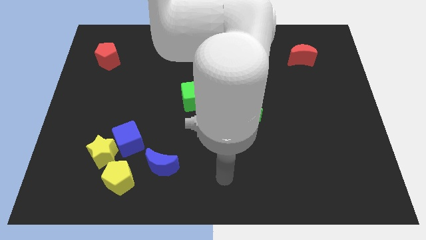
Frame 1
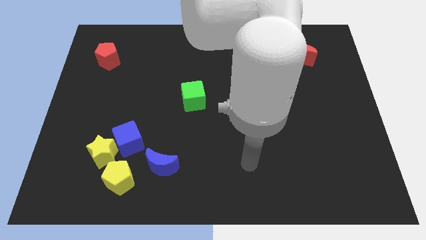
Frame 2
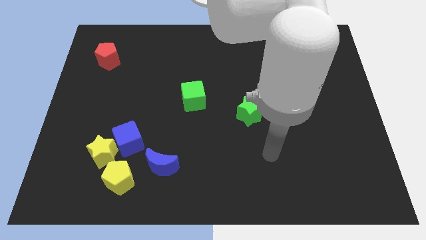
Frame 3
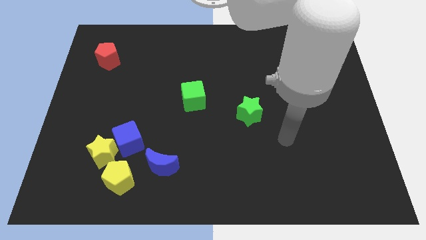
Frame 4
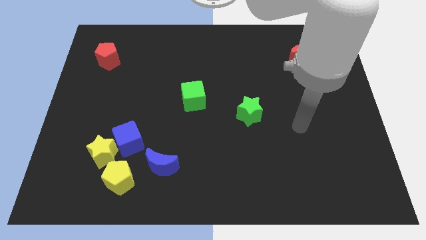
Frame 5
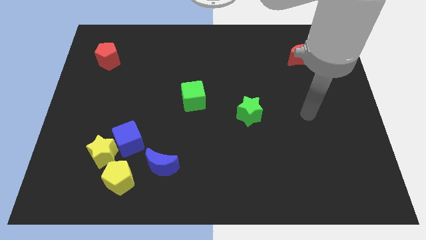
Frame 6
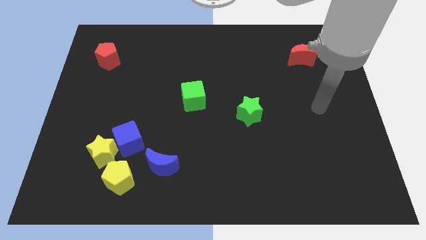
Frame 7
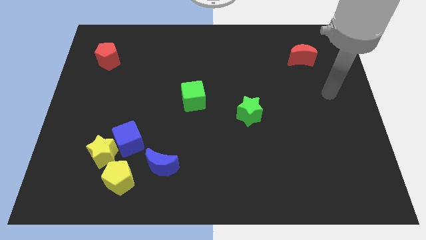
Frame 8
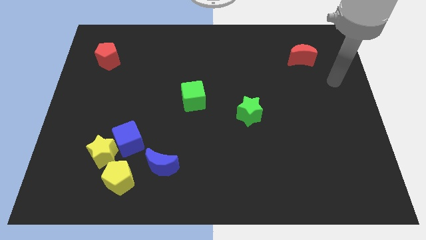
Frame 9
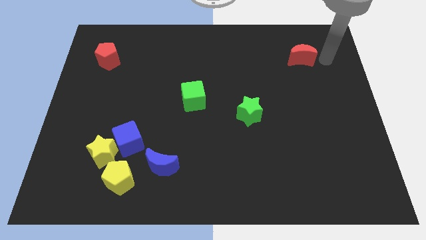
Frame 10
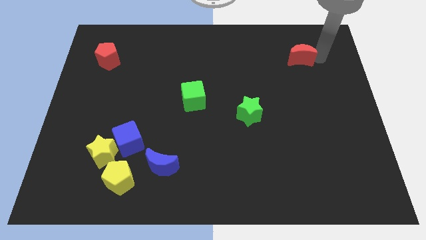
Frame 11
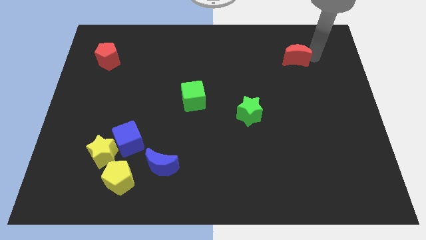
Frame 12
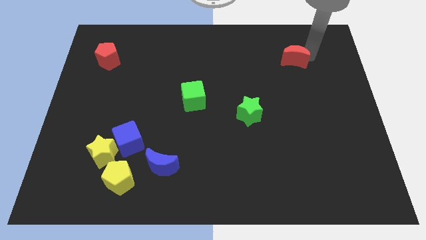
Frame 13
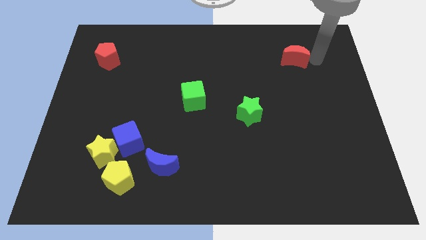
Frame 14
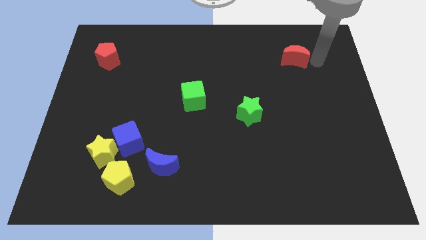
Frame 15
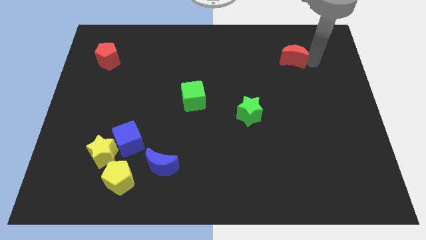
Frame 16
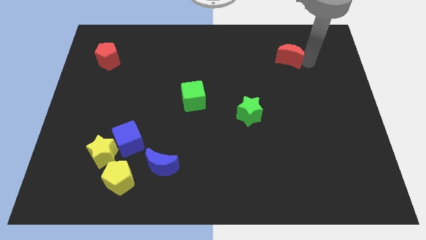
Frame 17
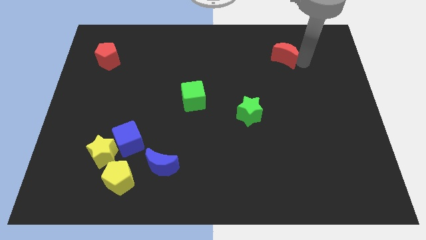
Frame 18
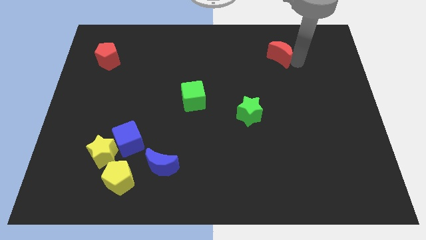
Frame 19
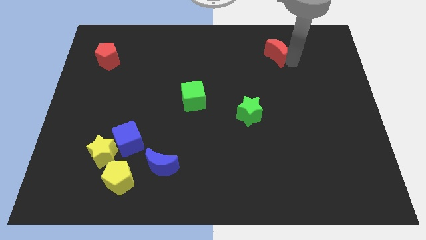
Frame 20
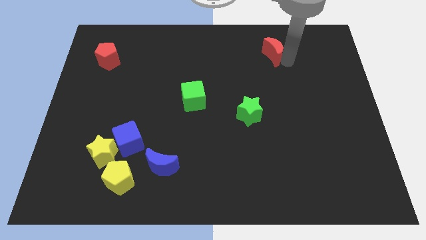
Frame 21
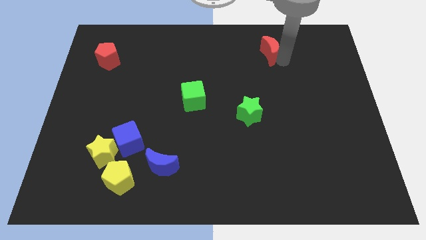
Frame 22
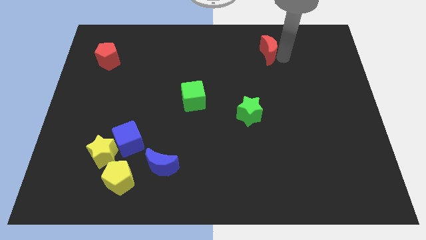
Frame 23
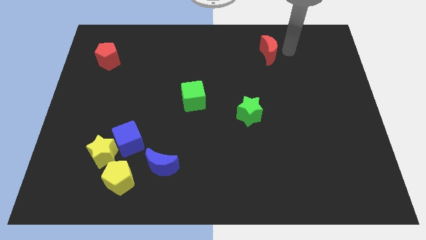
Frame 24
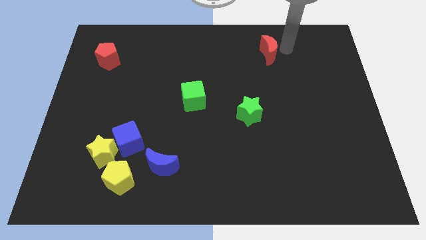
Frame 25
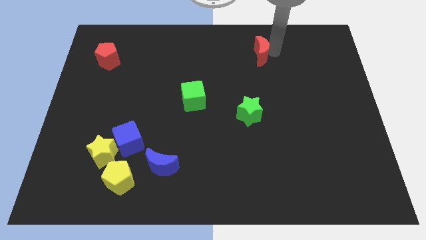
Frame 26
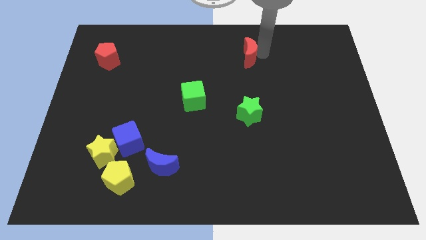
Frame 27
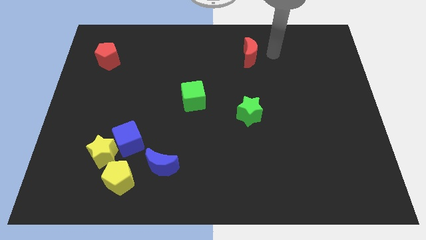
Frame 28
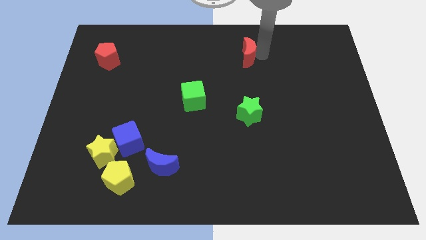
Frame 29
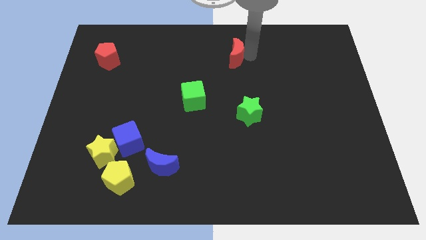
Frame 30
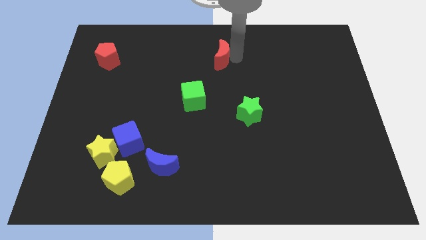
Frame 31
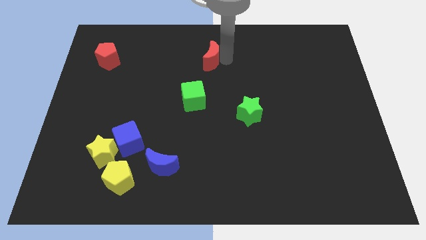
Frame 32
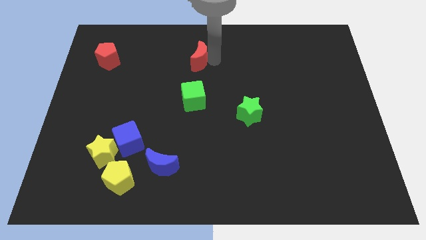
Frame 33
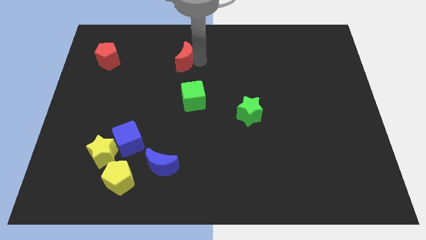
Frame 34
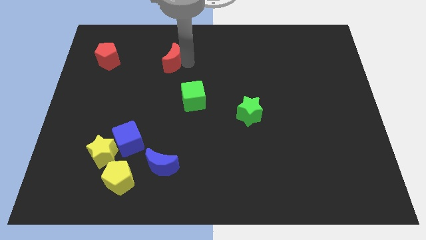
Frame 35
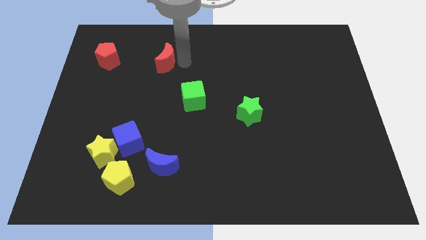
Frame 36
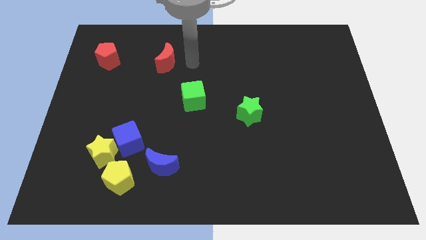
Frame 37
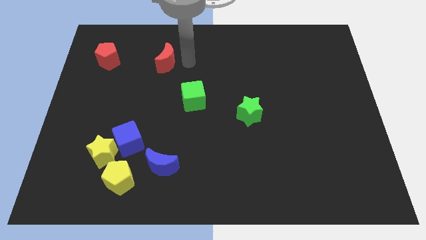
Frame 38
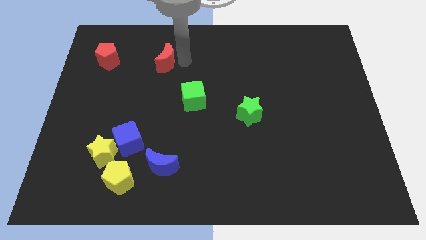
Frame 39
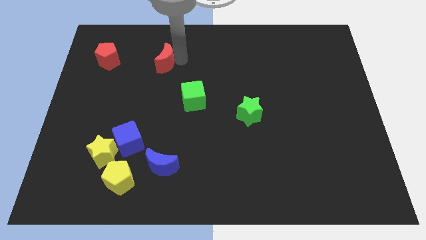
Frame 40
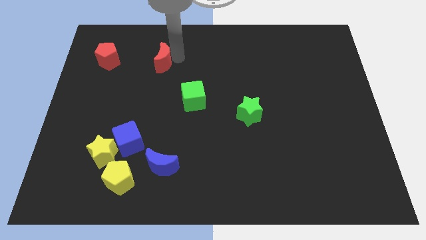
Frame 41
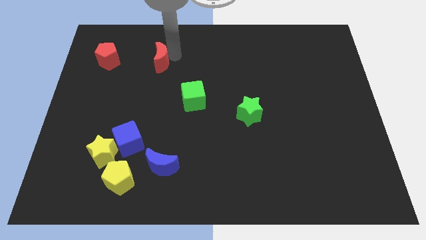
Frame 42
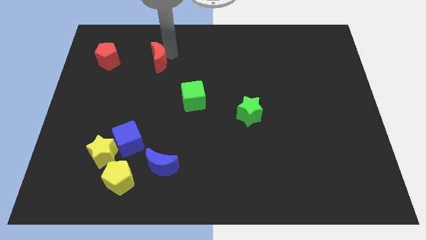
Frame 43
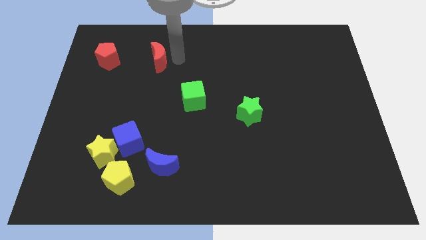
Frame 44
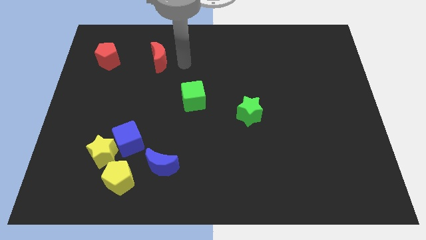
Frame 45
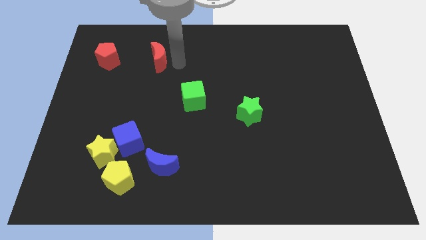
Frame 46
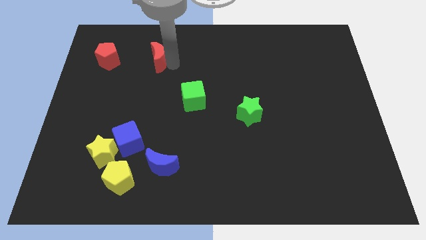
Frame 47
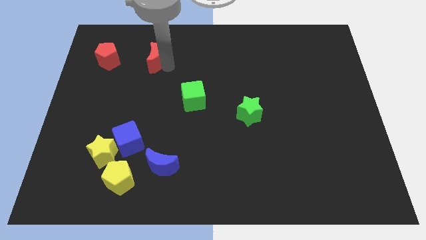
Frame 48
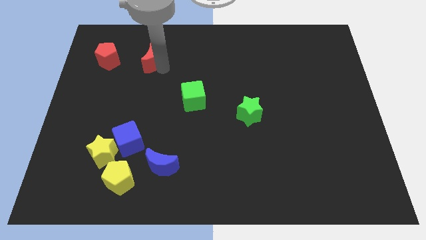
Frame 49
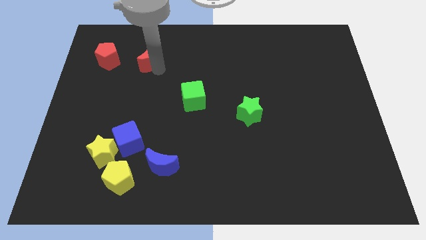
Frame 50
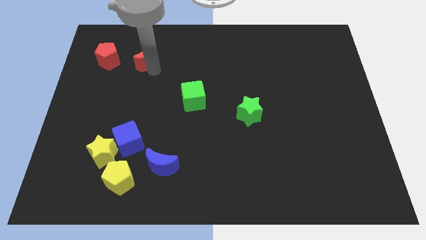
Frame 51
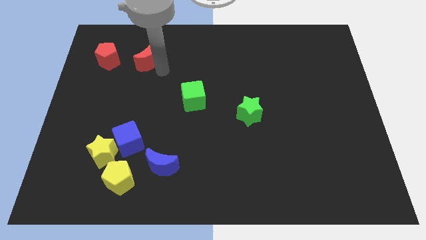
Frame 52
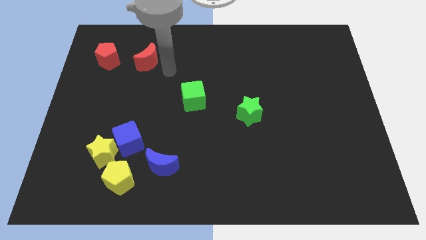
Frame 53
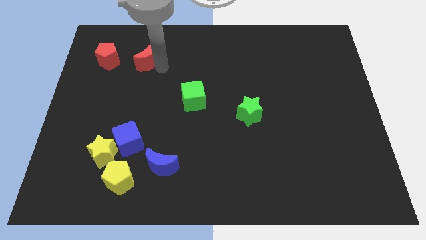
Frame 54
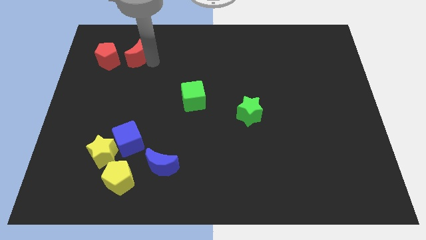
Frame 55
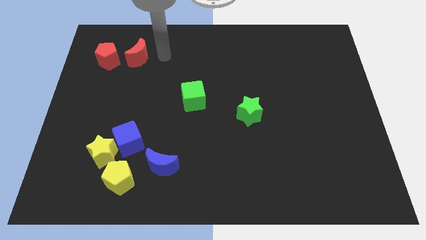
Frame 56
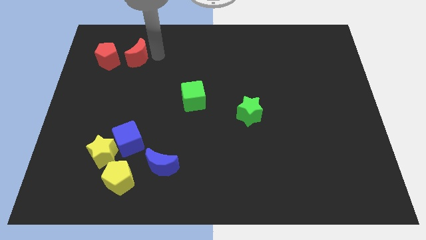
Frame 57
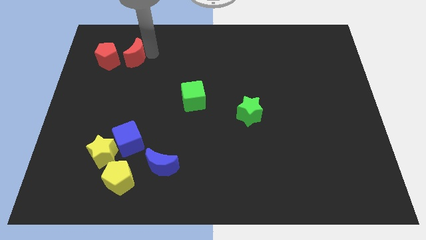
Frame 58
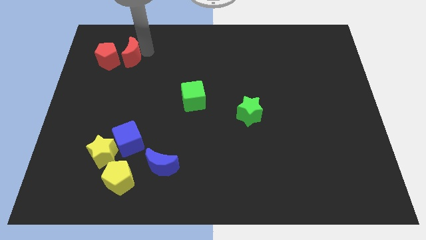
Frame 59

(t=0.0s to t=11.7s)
move the red moon close to the red pentagon

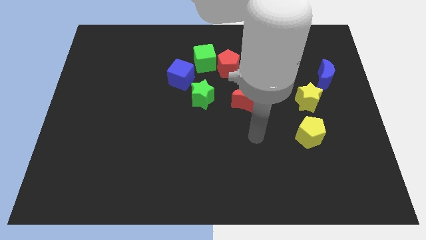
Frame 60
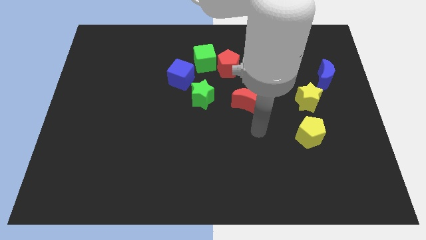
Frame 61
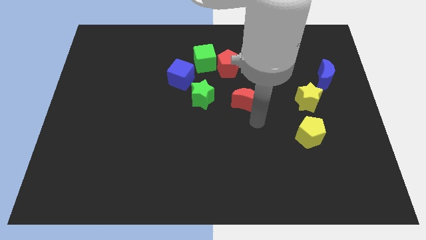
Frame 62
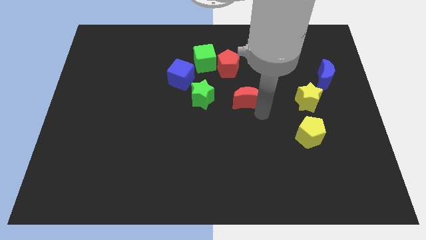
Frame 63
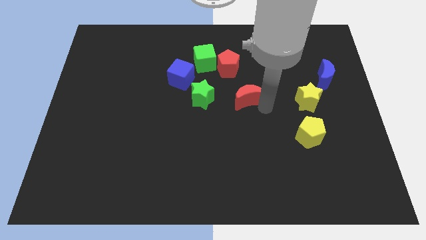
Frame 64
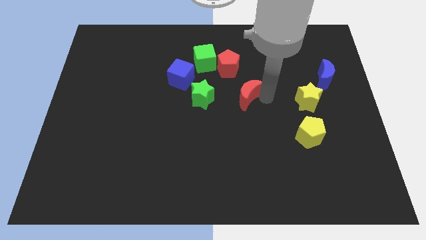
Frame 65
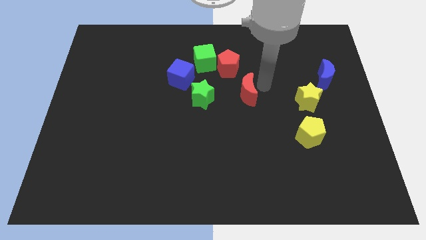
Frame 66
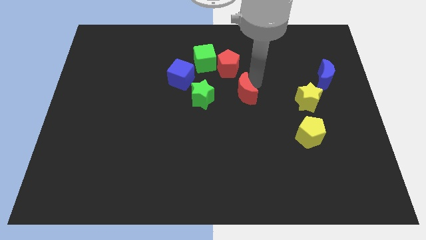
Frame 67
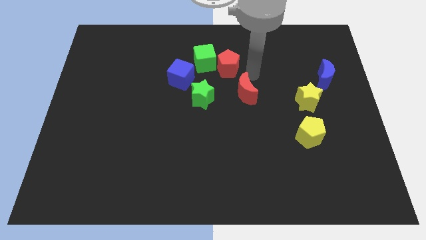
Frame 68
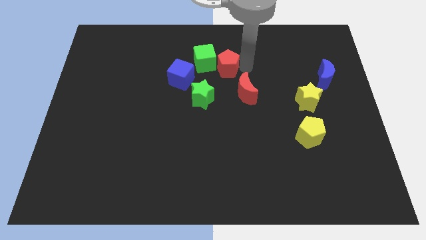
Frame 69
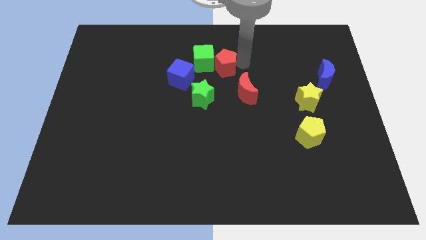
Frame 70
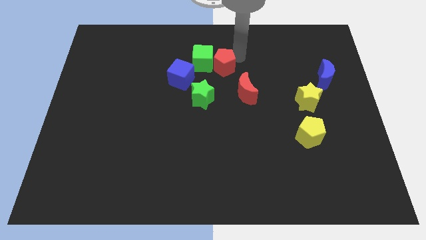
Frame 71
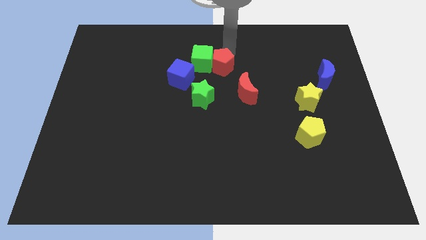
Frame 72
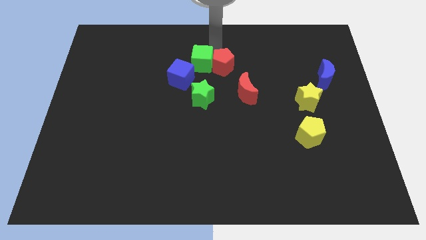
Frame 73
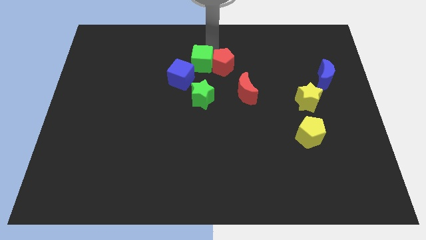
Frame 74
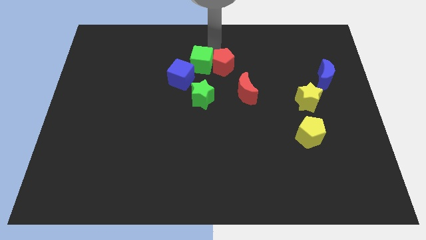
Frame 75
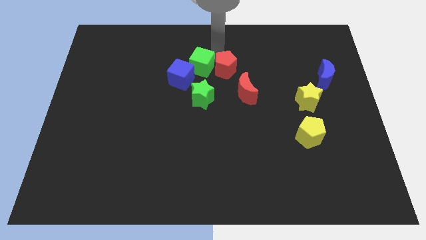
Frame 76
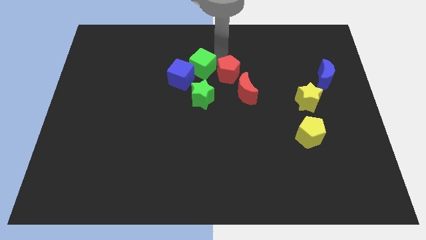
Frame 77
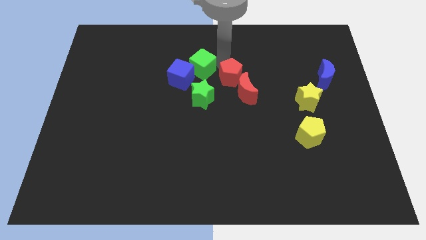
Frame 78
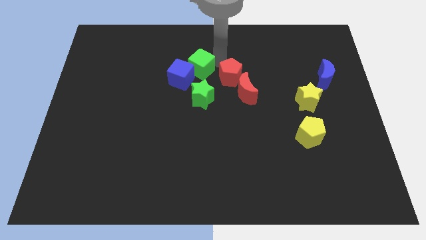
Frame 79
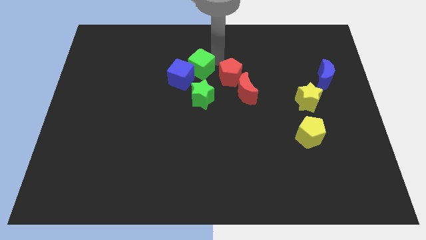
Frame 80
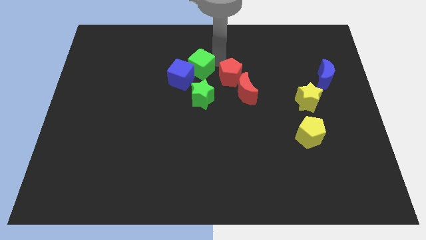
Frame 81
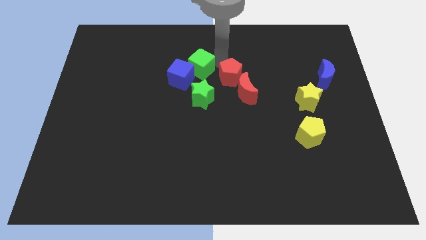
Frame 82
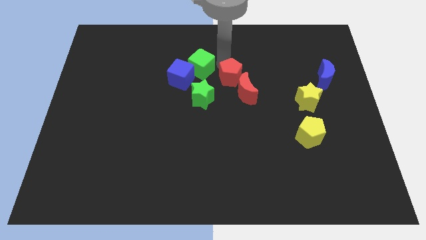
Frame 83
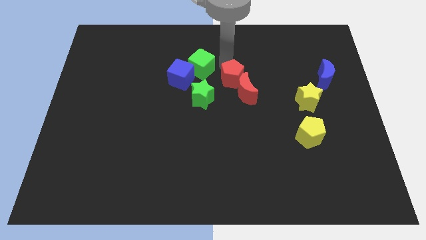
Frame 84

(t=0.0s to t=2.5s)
put the red pentagon close to the red moon
